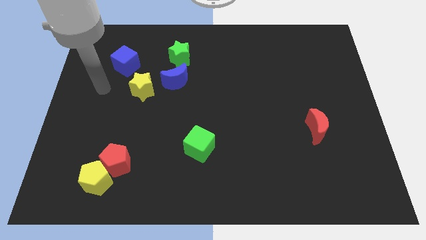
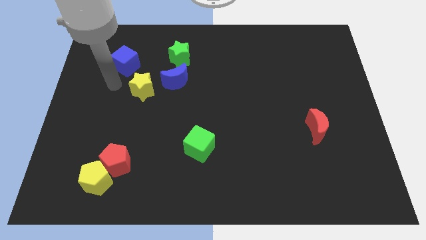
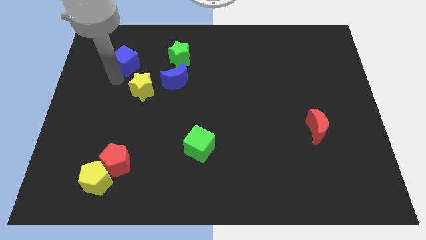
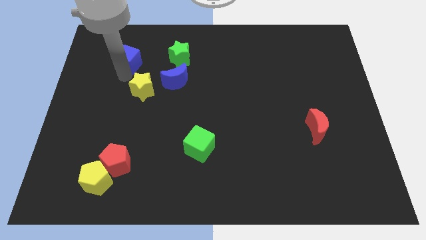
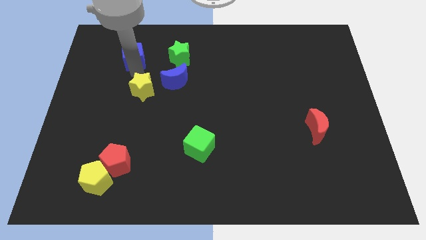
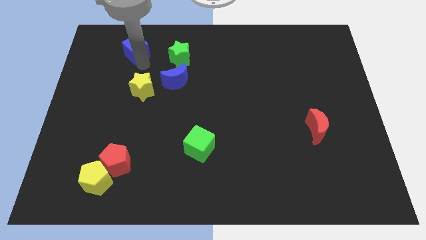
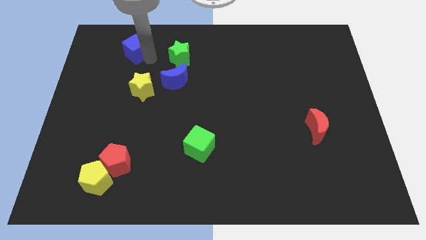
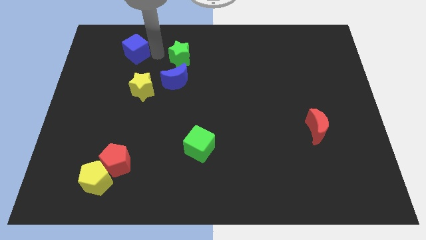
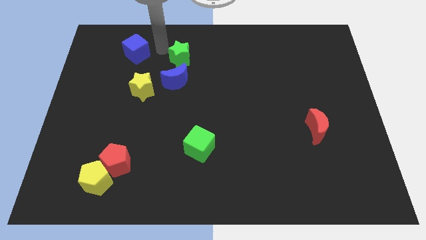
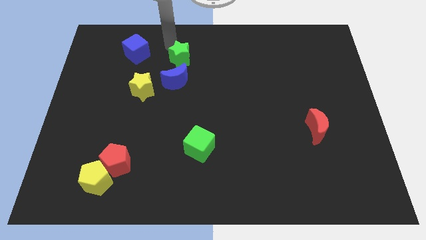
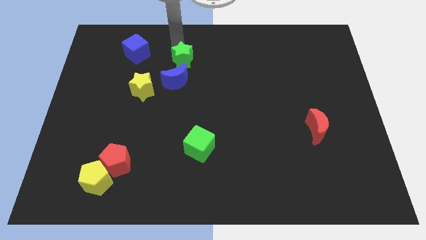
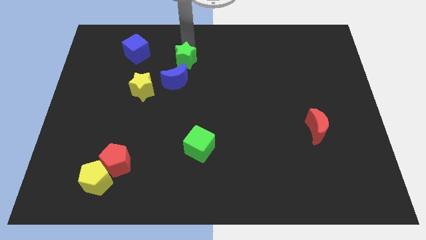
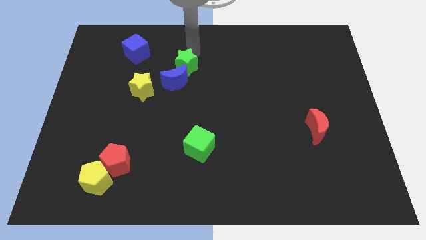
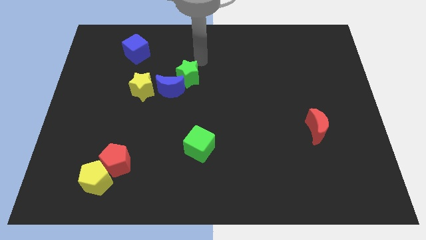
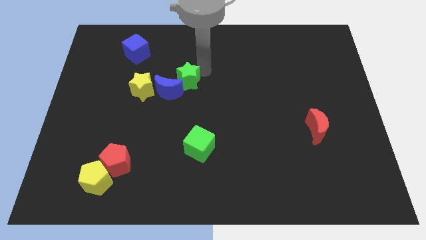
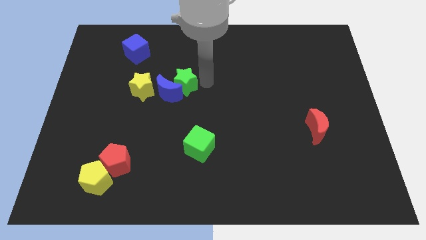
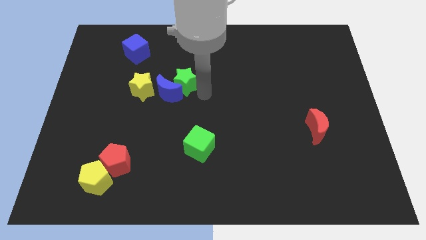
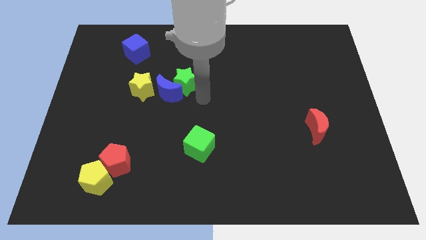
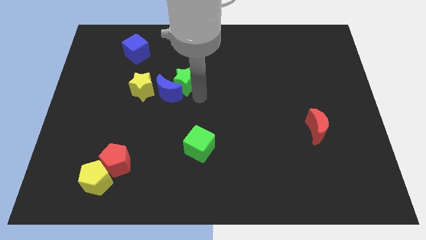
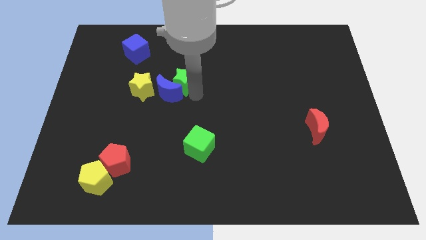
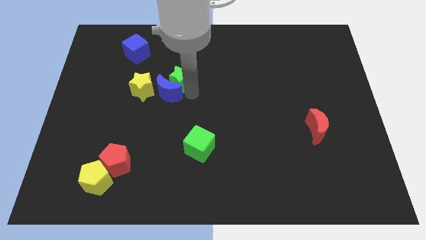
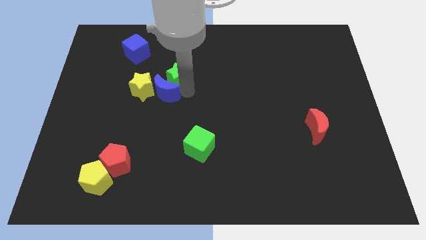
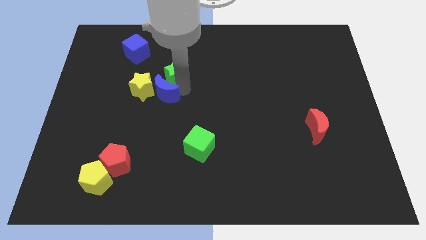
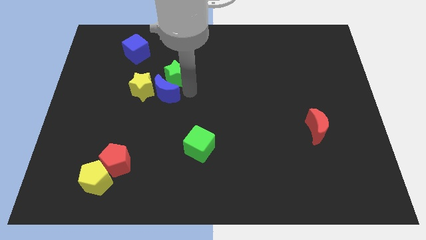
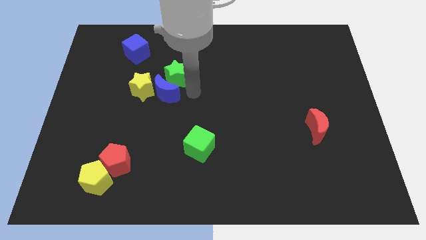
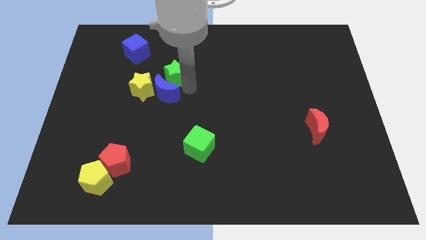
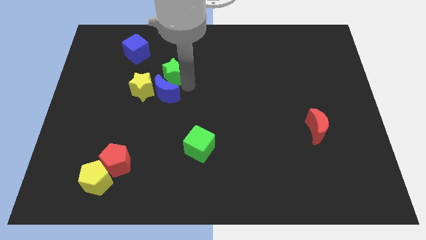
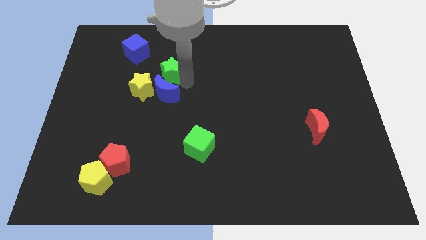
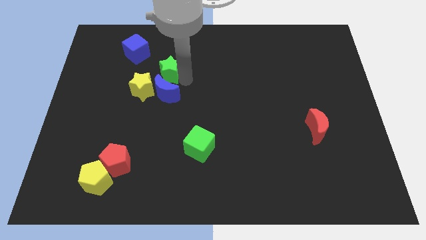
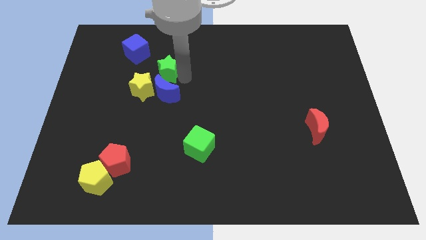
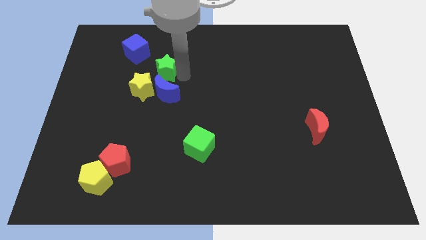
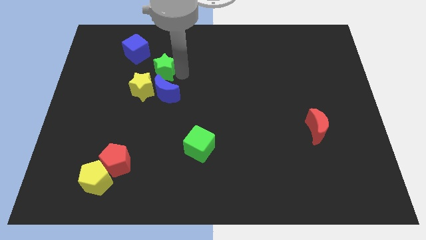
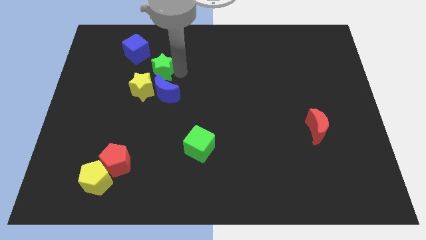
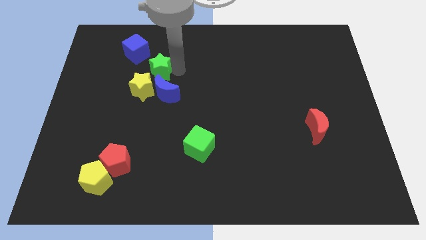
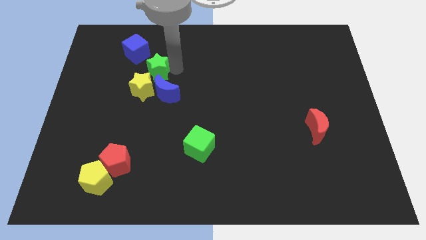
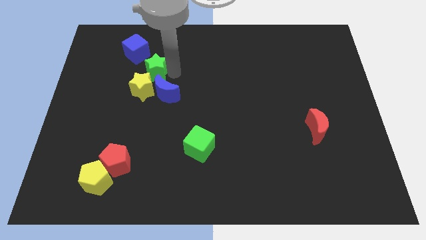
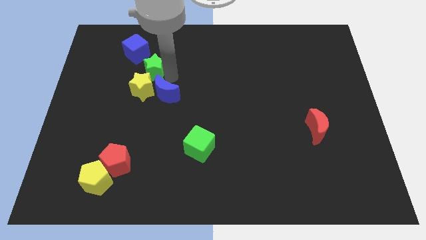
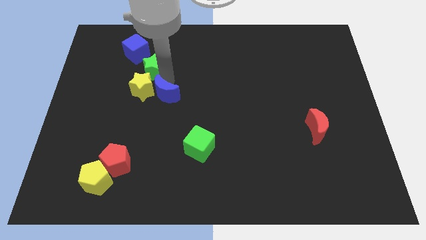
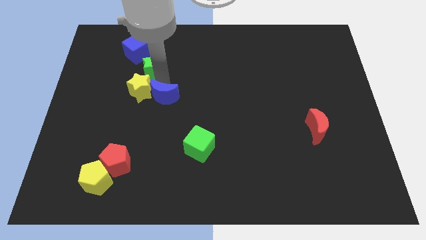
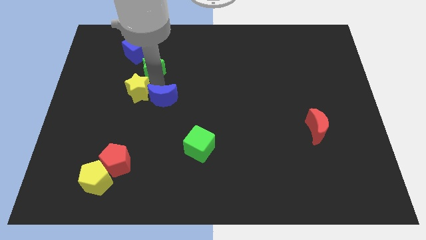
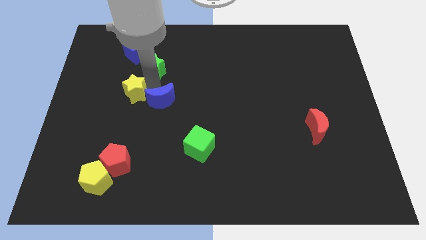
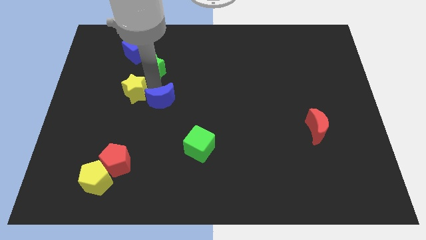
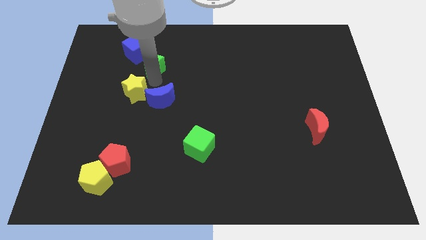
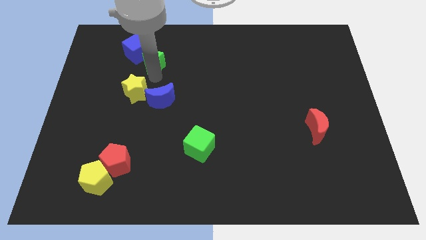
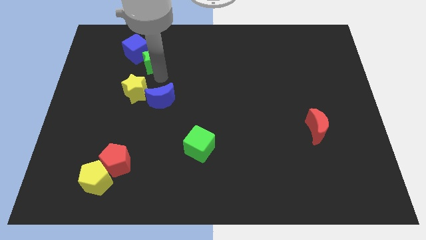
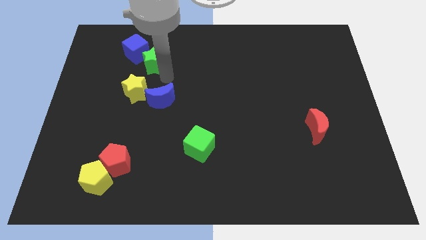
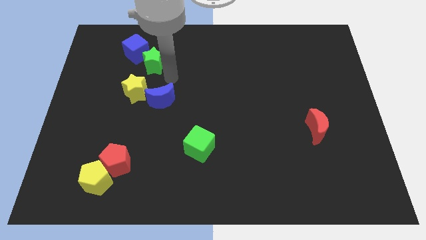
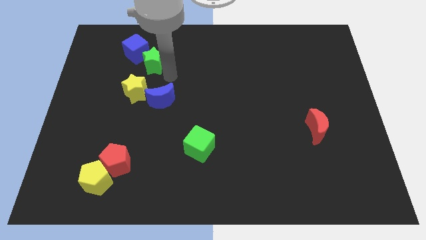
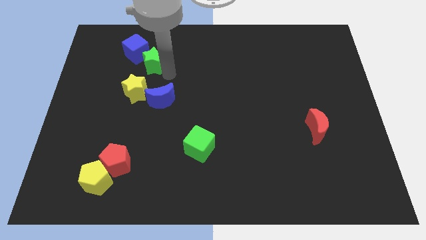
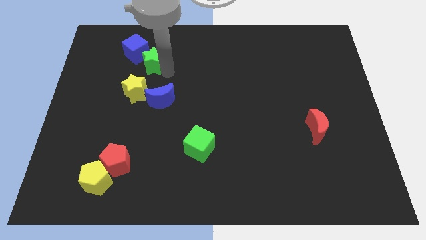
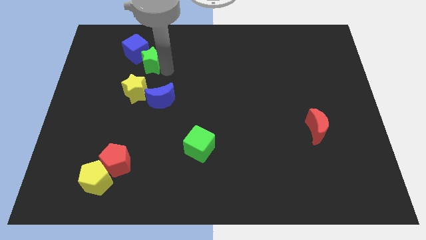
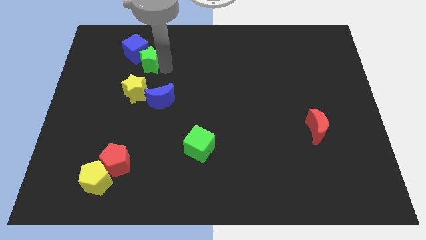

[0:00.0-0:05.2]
slightly move the green star left

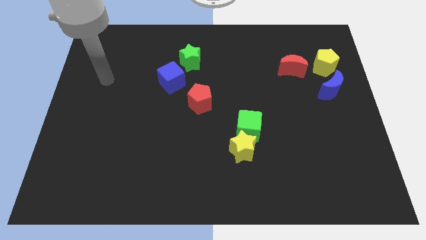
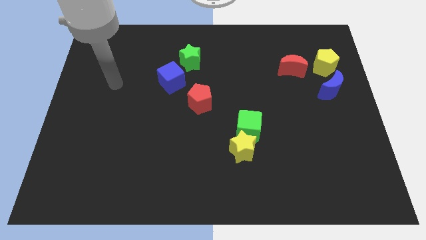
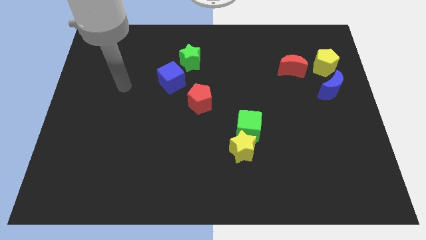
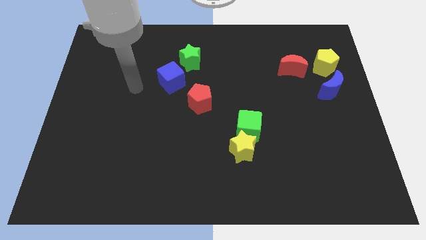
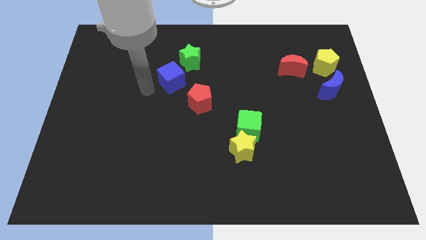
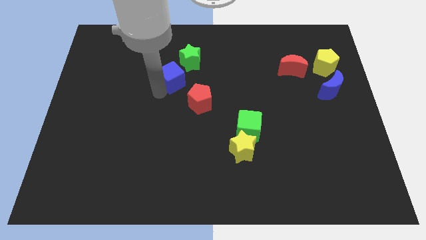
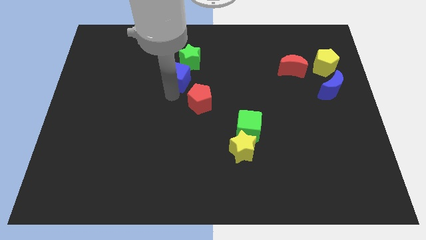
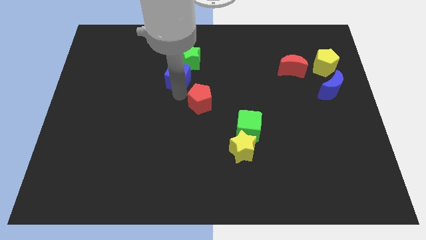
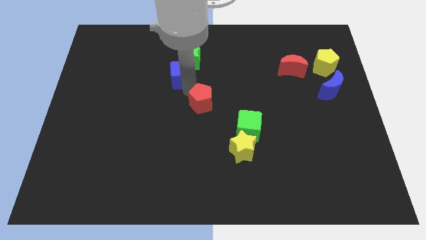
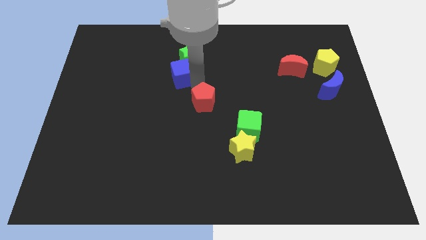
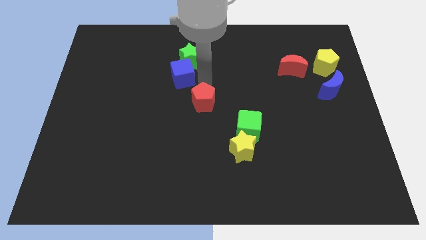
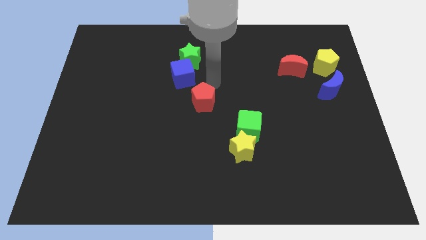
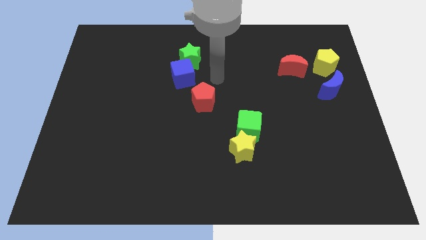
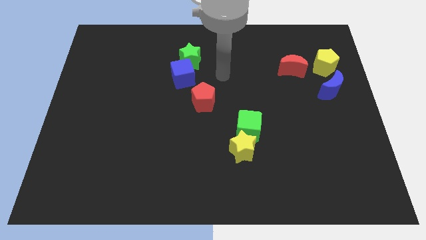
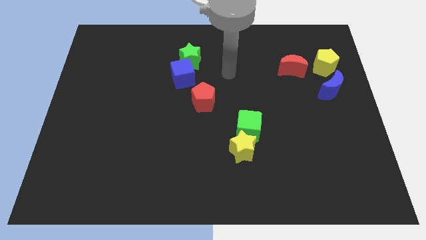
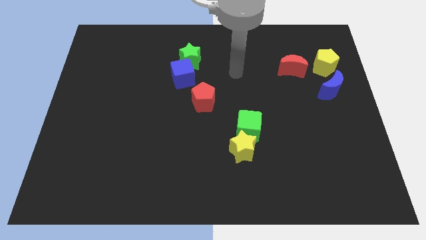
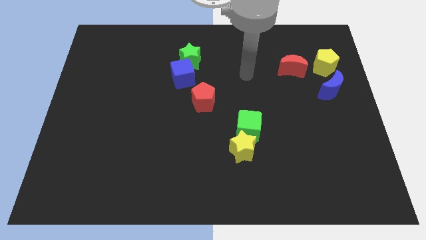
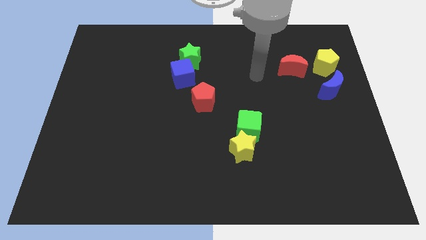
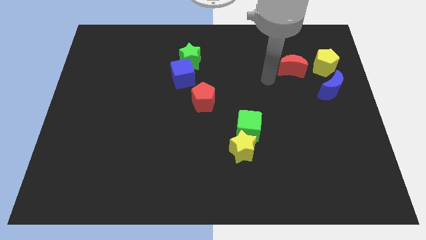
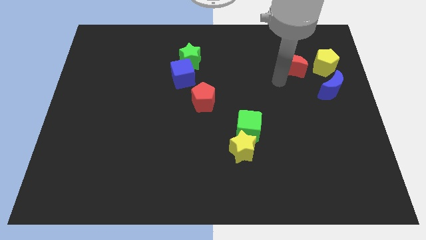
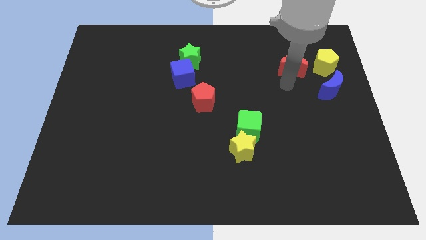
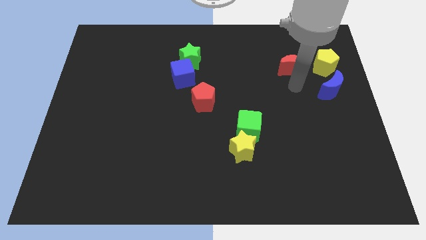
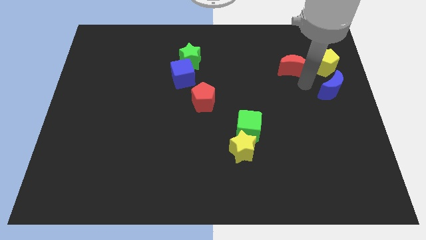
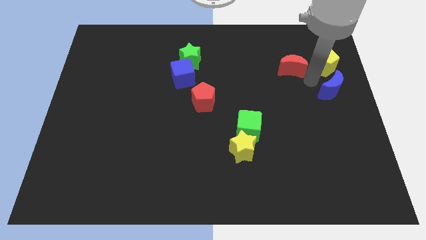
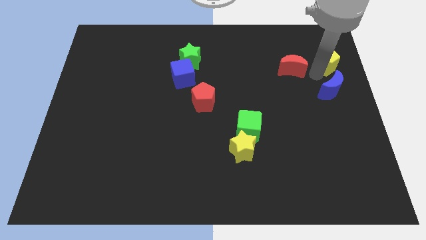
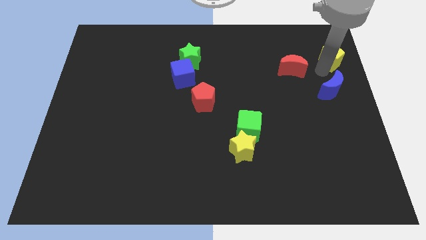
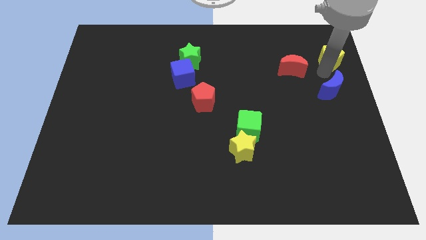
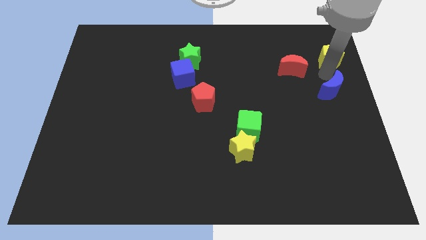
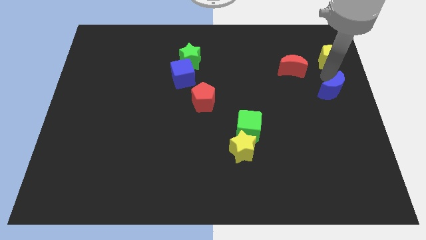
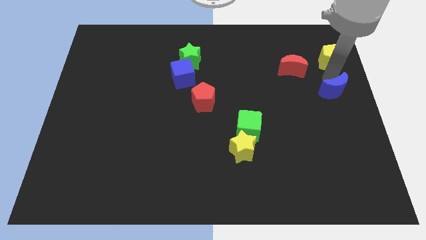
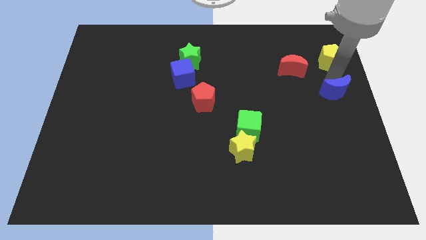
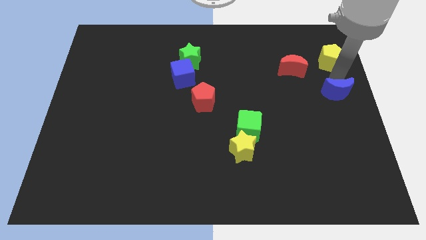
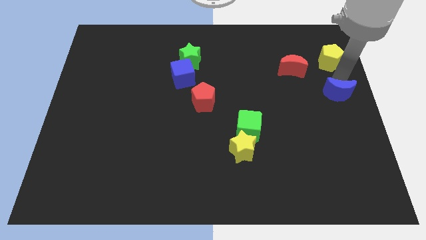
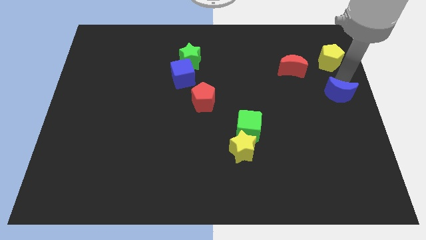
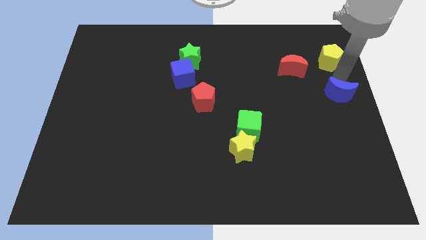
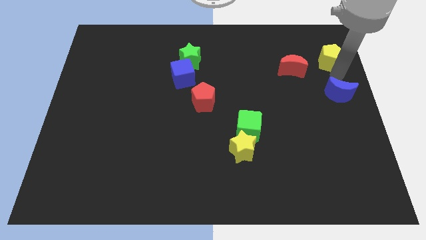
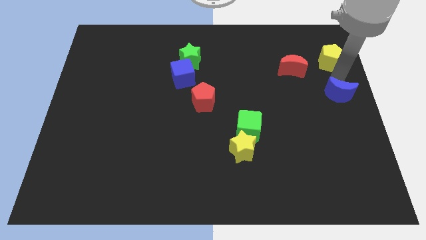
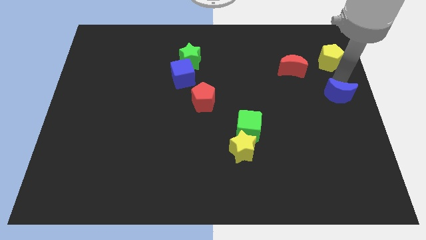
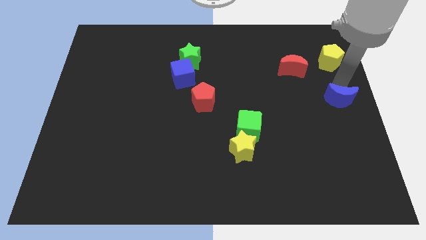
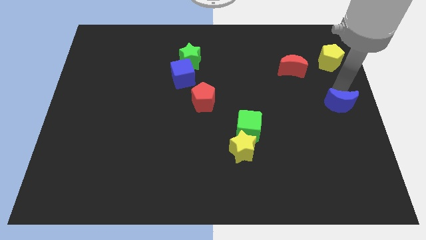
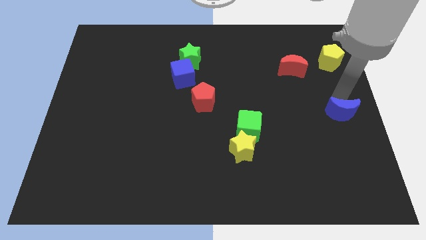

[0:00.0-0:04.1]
slightly slide the blue moon down
